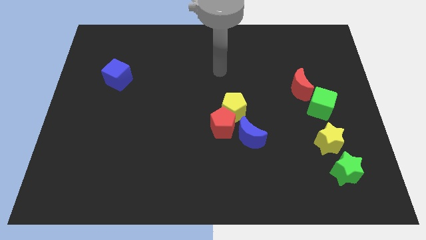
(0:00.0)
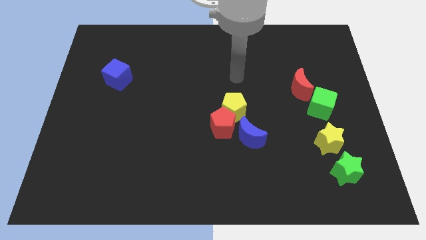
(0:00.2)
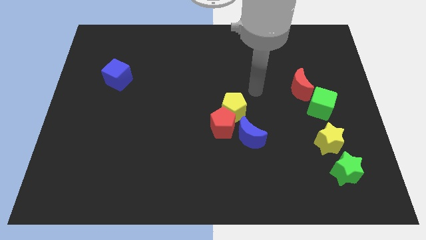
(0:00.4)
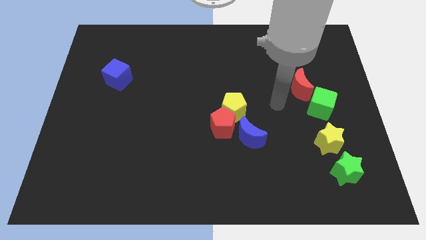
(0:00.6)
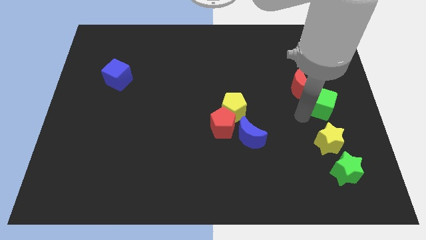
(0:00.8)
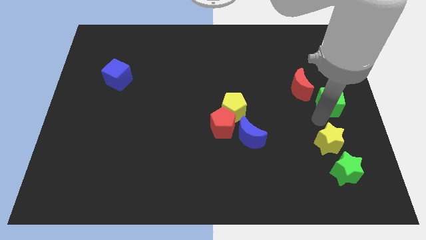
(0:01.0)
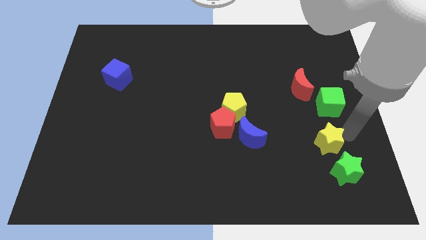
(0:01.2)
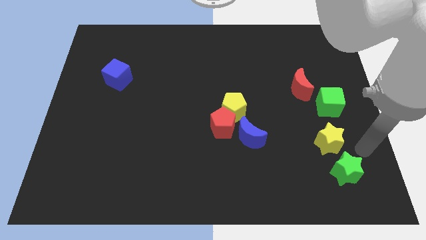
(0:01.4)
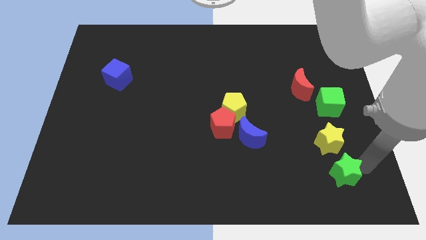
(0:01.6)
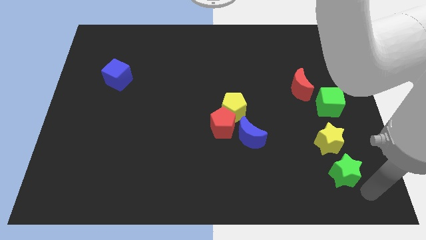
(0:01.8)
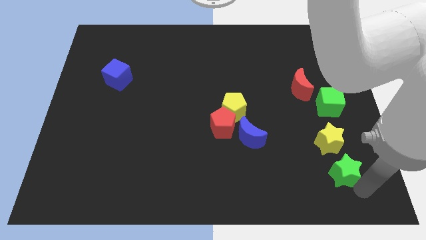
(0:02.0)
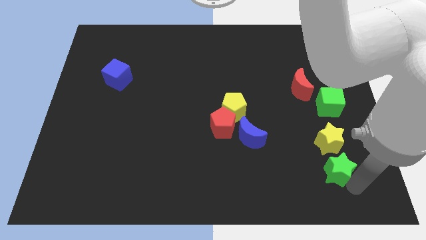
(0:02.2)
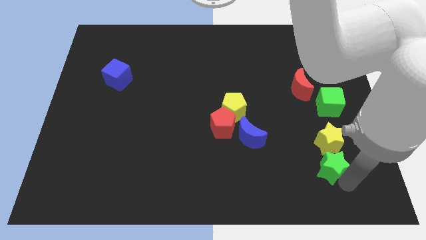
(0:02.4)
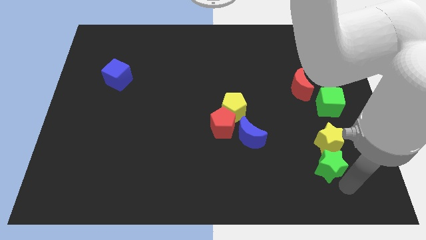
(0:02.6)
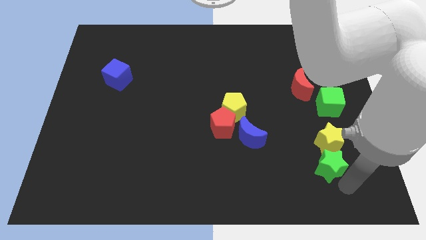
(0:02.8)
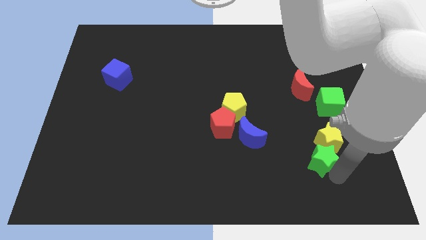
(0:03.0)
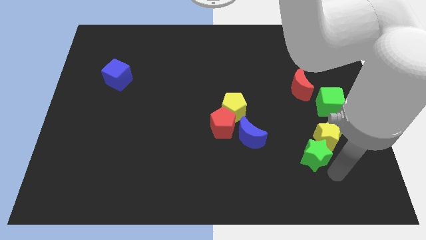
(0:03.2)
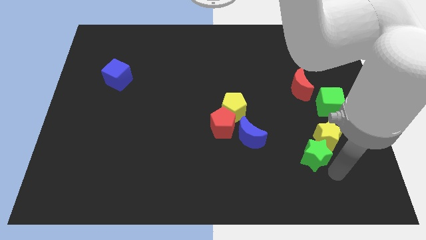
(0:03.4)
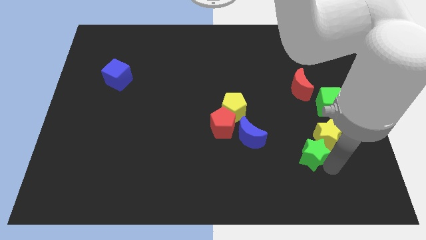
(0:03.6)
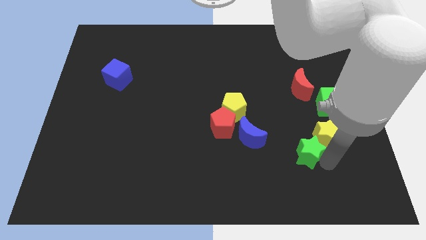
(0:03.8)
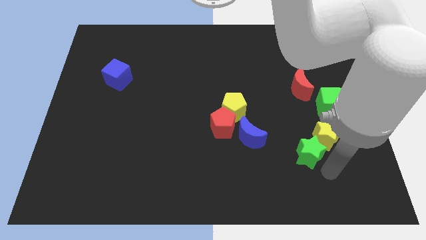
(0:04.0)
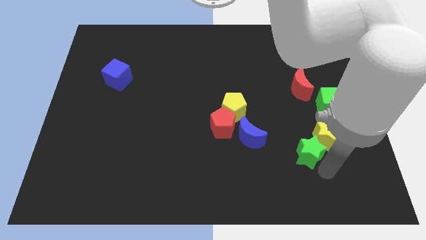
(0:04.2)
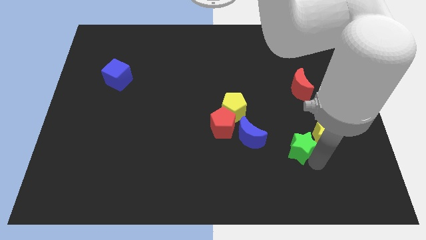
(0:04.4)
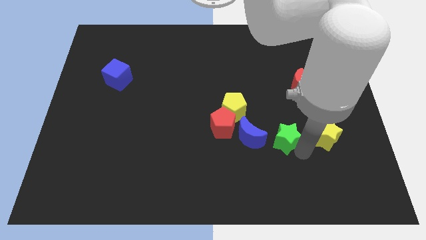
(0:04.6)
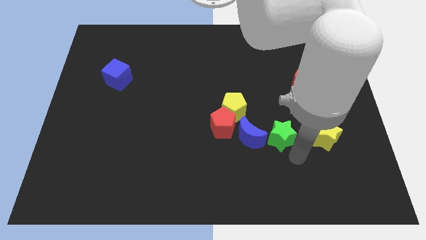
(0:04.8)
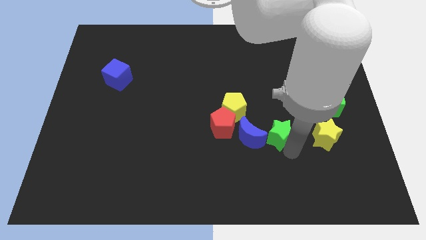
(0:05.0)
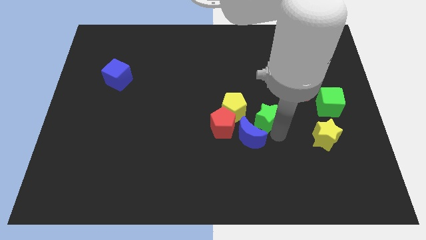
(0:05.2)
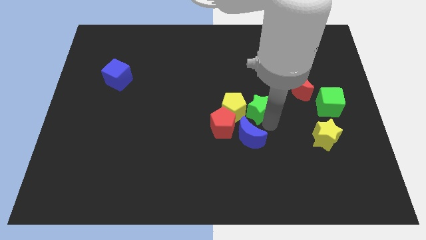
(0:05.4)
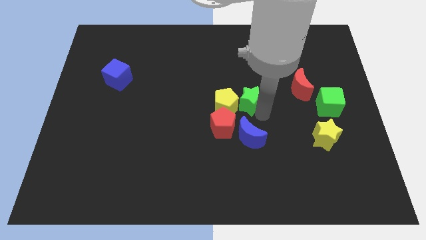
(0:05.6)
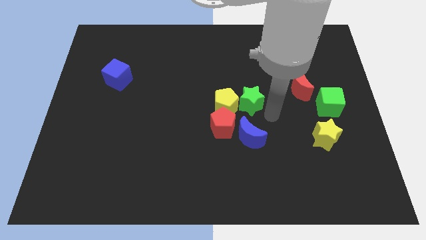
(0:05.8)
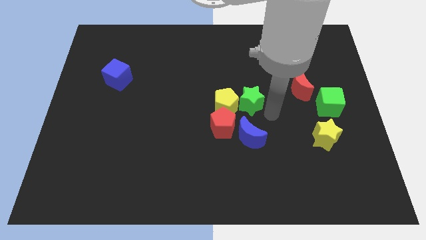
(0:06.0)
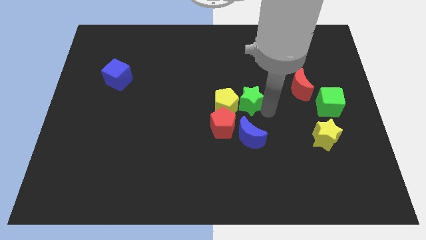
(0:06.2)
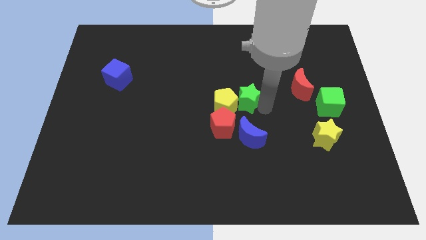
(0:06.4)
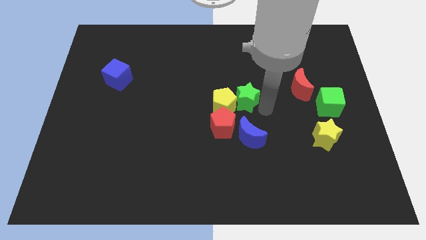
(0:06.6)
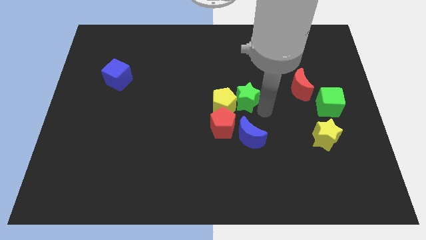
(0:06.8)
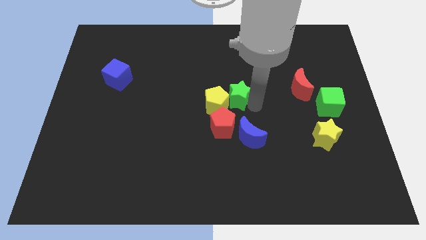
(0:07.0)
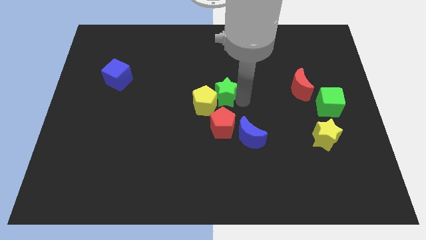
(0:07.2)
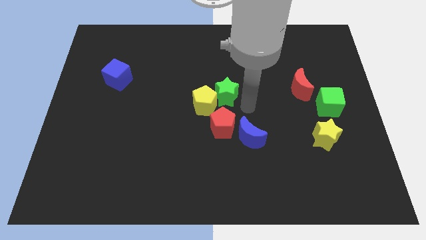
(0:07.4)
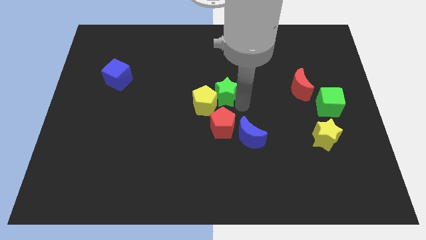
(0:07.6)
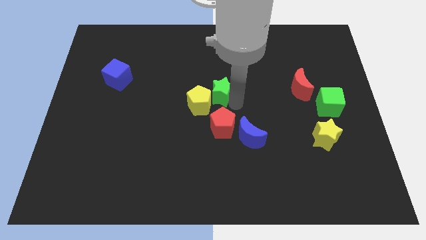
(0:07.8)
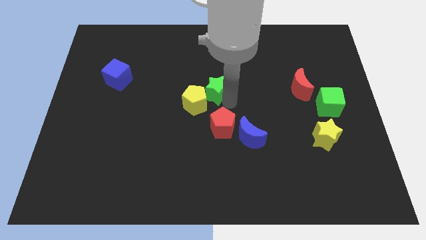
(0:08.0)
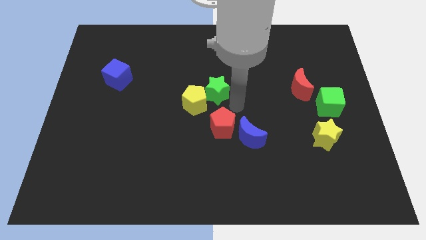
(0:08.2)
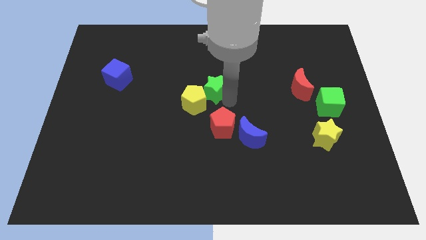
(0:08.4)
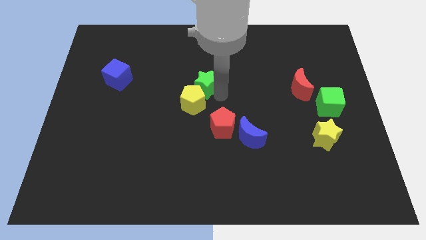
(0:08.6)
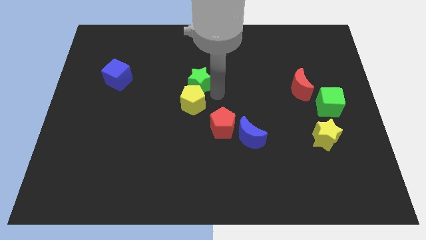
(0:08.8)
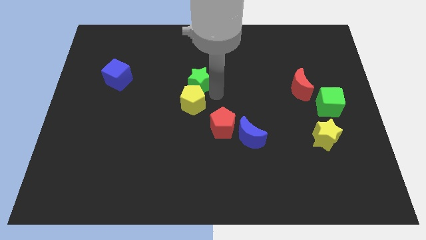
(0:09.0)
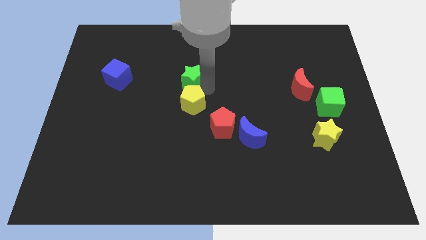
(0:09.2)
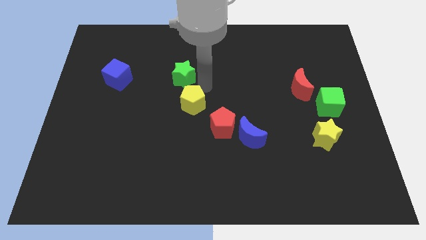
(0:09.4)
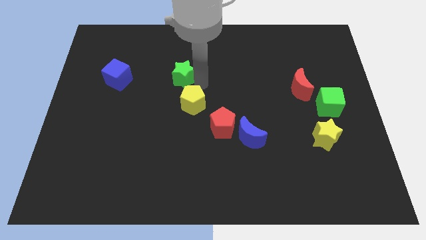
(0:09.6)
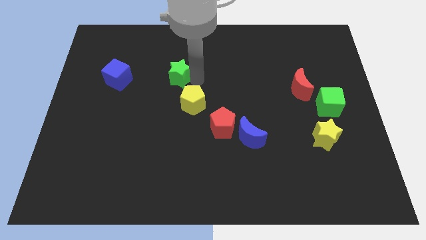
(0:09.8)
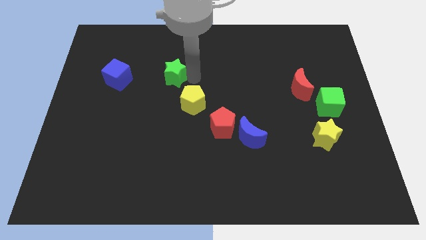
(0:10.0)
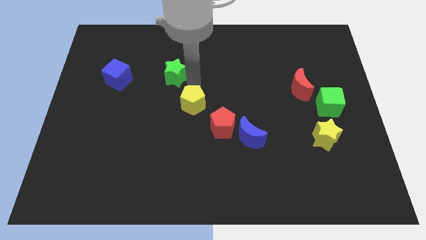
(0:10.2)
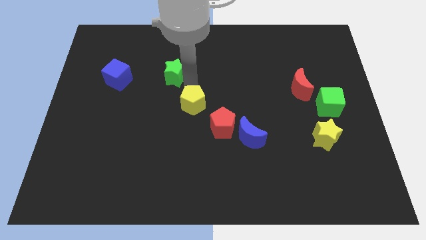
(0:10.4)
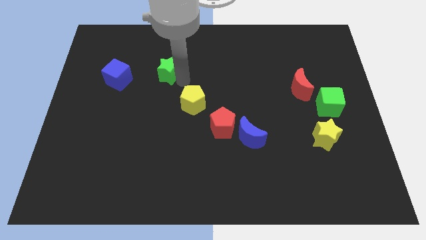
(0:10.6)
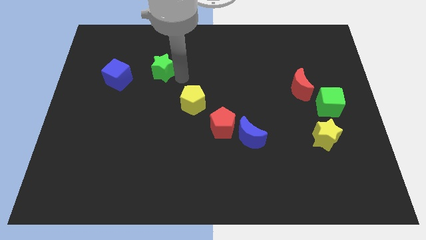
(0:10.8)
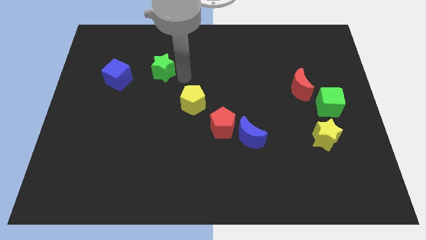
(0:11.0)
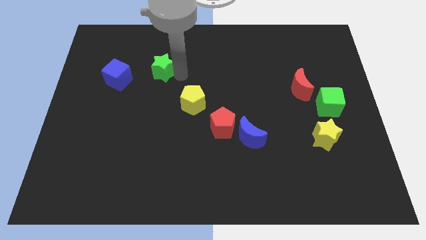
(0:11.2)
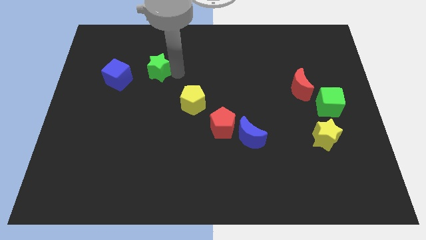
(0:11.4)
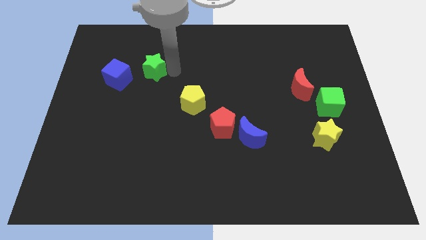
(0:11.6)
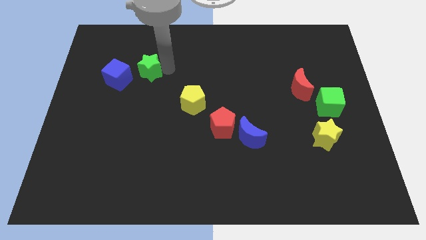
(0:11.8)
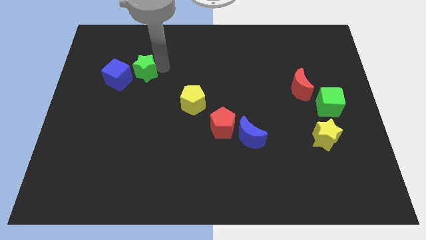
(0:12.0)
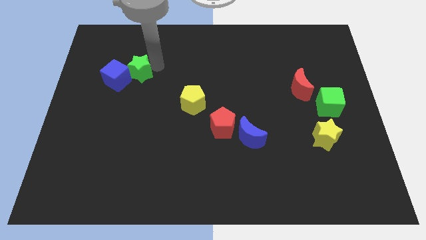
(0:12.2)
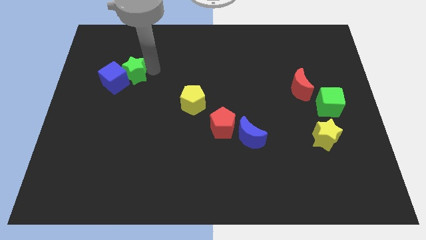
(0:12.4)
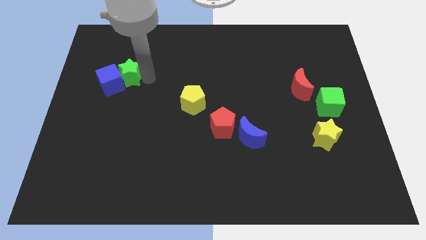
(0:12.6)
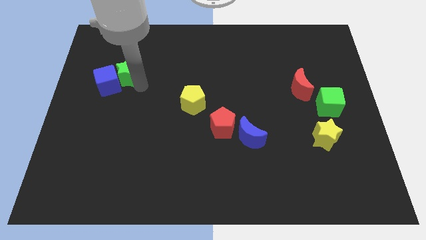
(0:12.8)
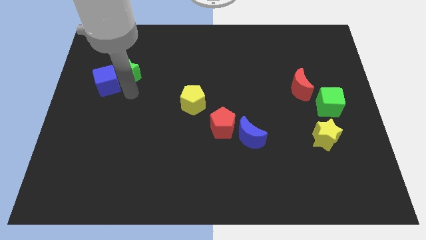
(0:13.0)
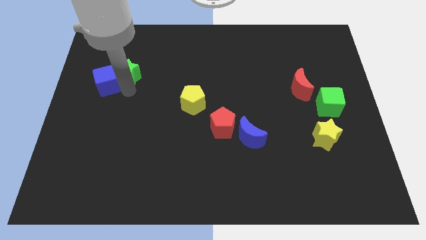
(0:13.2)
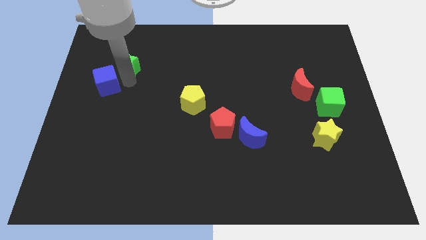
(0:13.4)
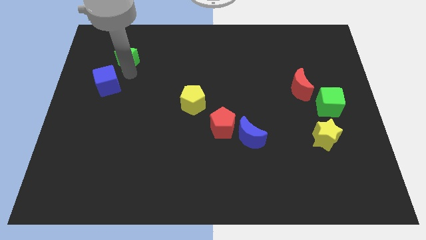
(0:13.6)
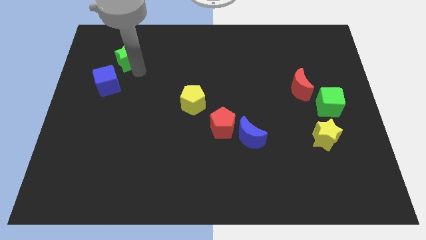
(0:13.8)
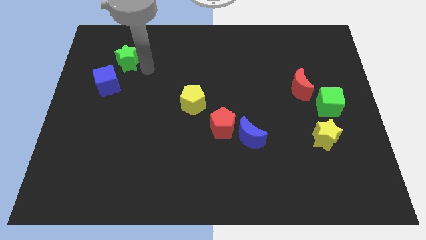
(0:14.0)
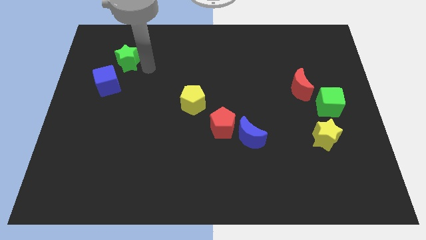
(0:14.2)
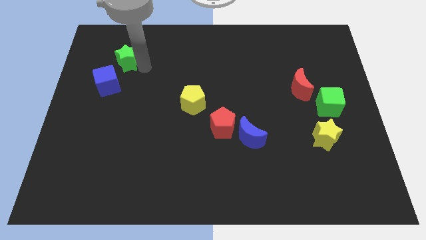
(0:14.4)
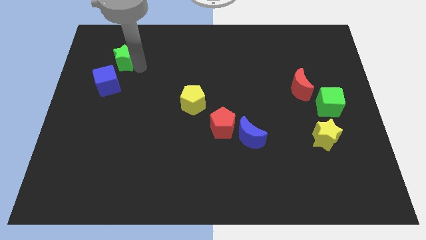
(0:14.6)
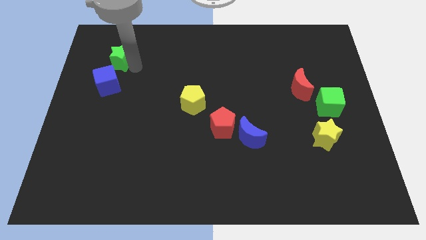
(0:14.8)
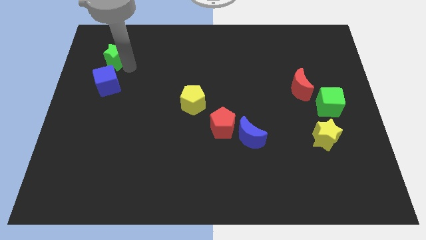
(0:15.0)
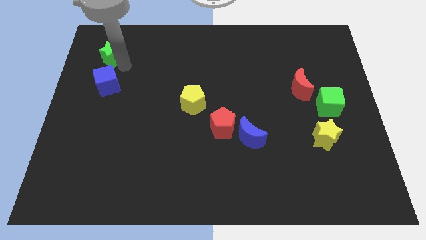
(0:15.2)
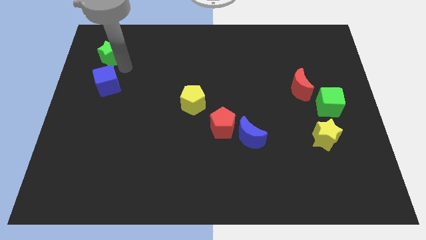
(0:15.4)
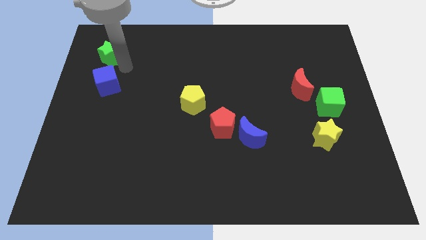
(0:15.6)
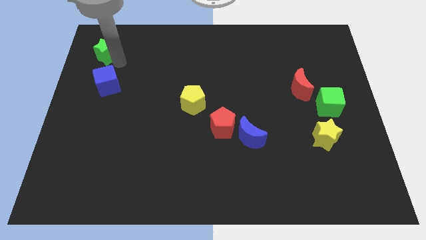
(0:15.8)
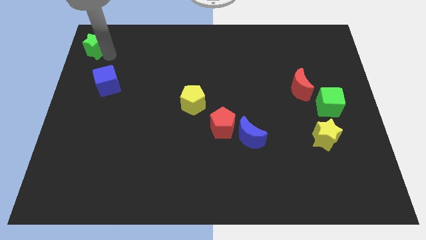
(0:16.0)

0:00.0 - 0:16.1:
slide the green star to the top left
